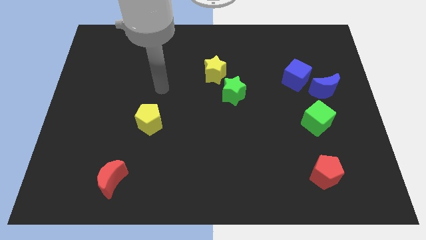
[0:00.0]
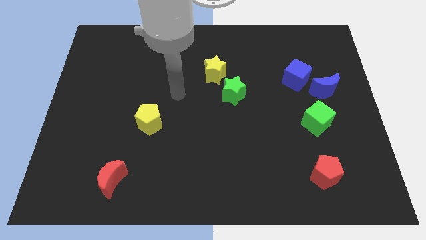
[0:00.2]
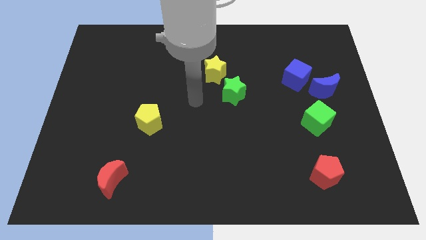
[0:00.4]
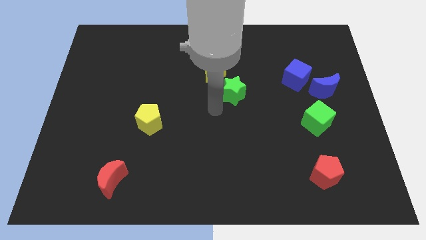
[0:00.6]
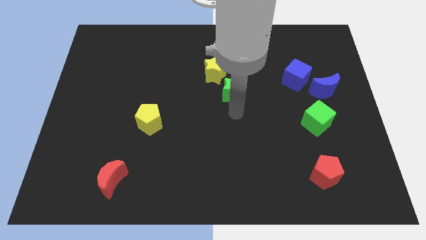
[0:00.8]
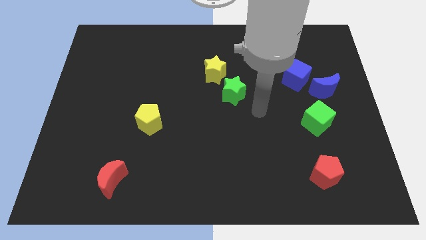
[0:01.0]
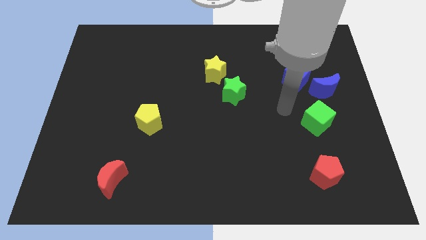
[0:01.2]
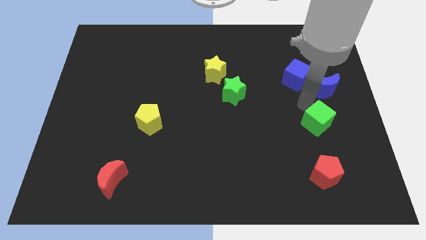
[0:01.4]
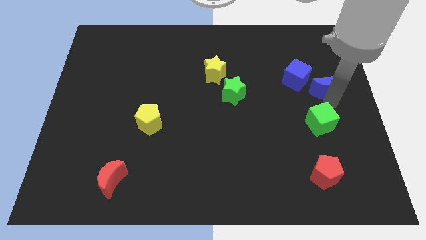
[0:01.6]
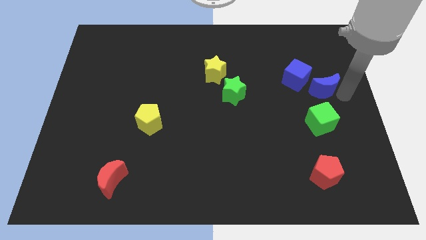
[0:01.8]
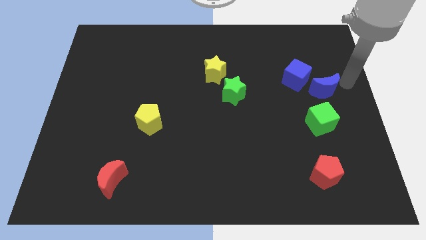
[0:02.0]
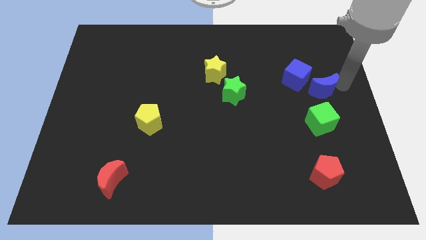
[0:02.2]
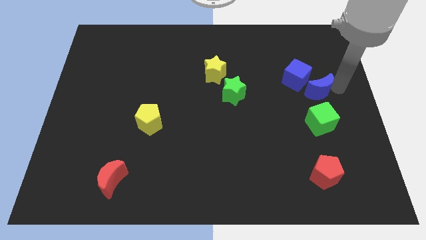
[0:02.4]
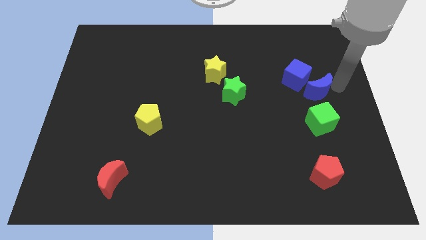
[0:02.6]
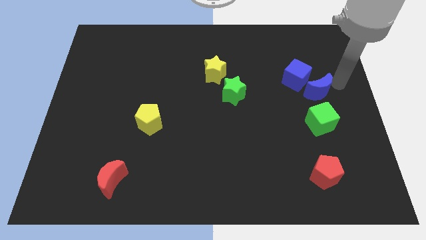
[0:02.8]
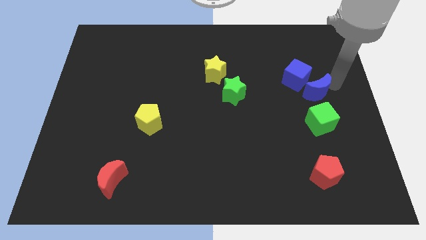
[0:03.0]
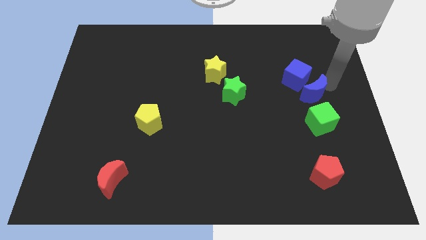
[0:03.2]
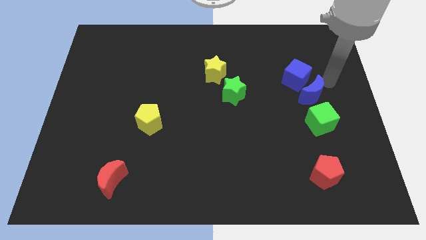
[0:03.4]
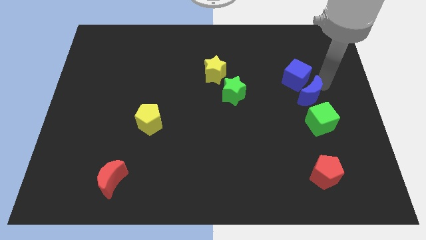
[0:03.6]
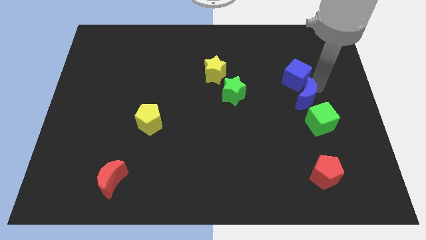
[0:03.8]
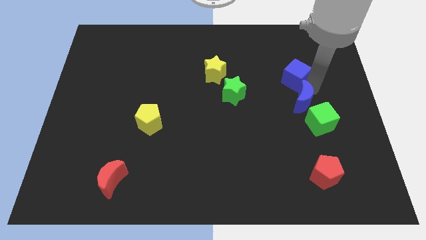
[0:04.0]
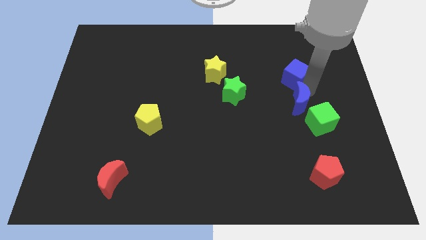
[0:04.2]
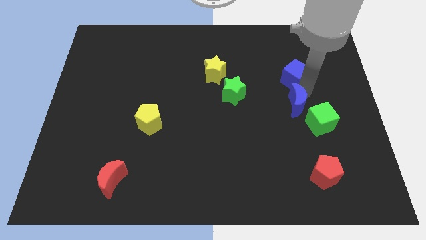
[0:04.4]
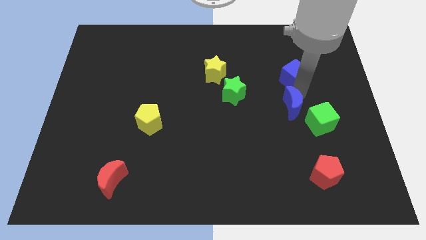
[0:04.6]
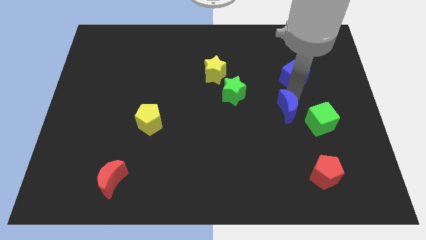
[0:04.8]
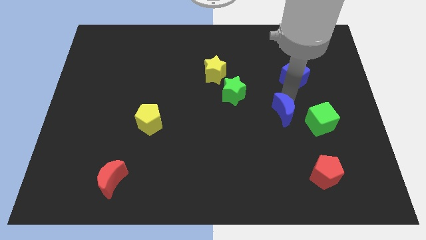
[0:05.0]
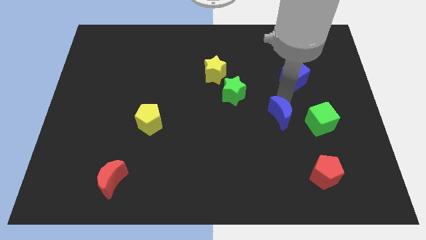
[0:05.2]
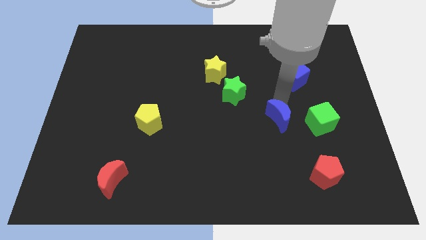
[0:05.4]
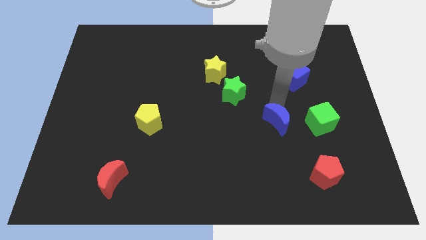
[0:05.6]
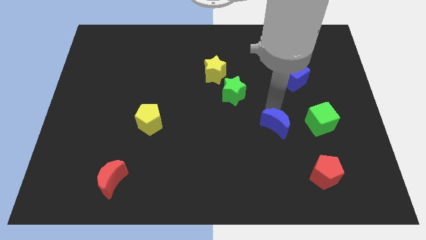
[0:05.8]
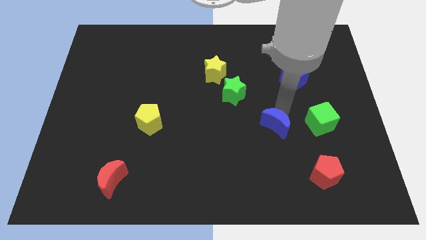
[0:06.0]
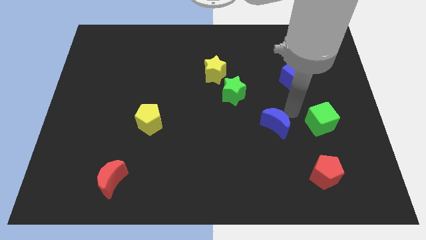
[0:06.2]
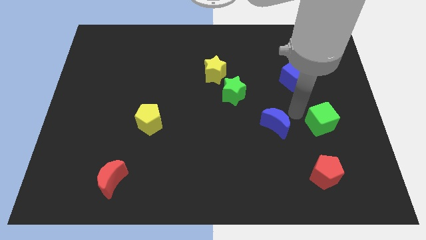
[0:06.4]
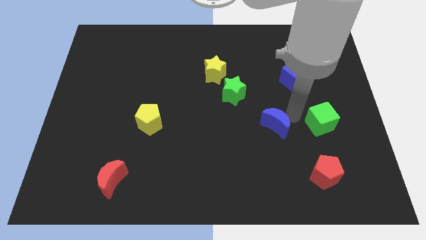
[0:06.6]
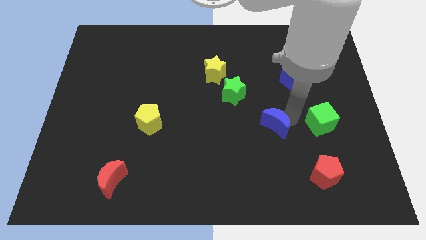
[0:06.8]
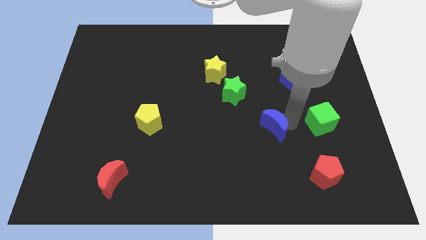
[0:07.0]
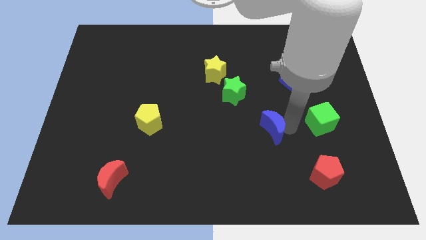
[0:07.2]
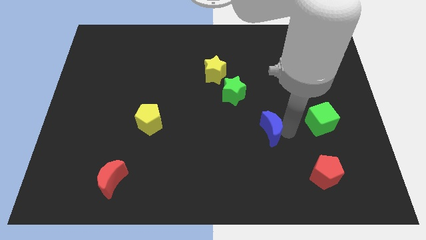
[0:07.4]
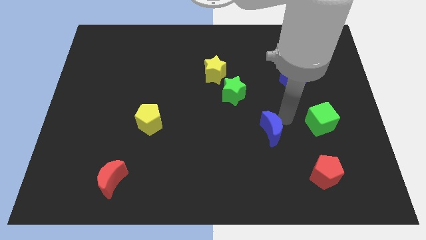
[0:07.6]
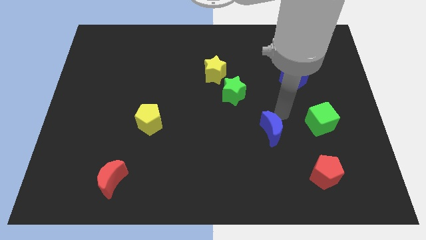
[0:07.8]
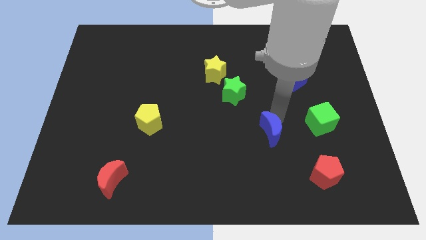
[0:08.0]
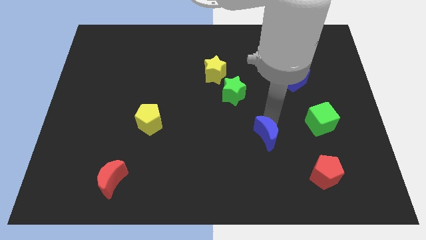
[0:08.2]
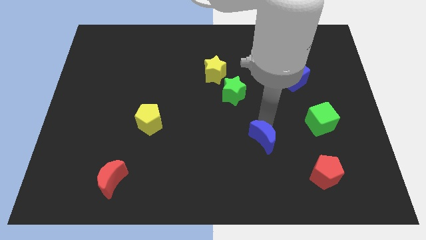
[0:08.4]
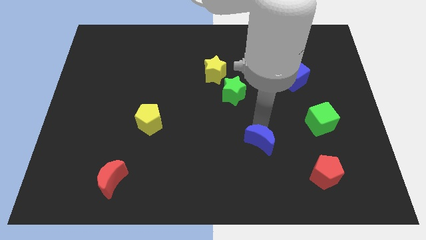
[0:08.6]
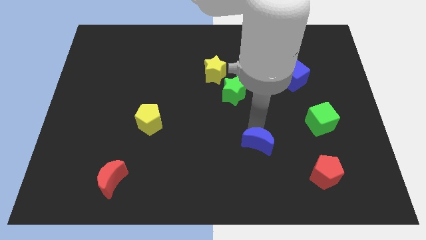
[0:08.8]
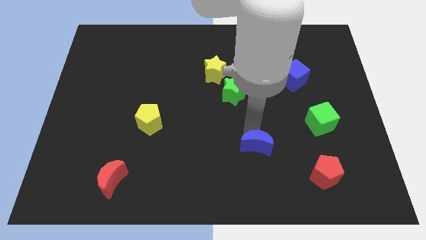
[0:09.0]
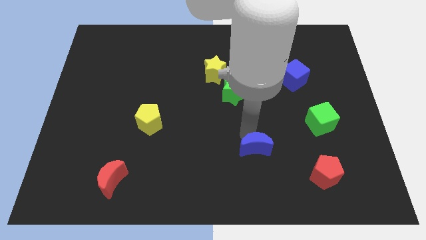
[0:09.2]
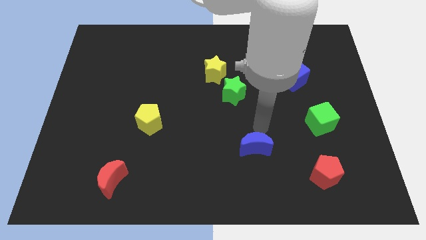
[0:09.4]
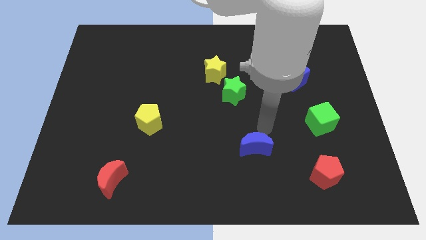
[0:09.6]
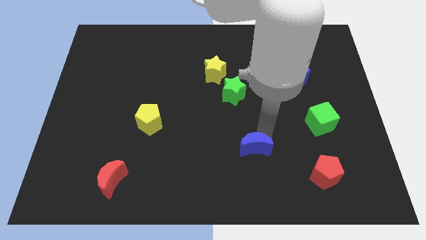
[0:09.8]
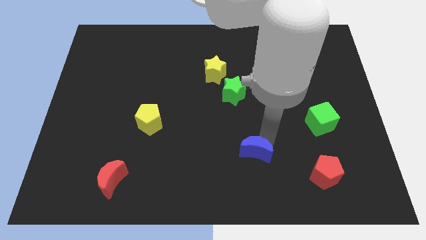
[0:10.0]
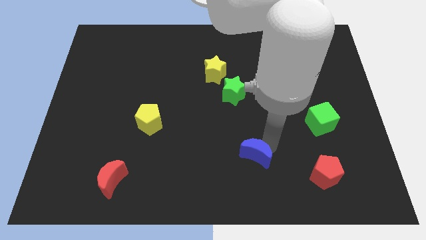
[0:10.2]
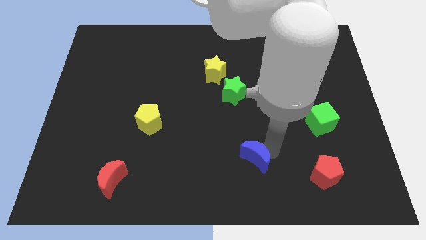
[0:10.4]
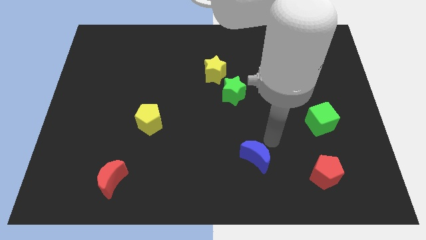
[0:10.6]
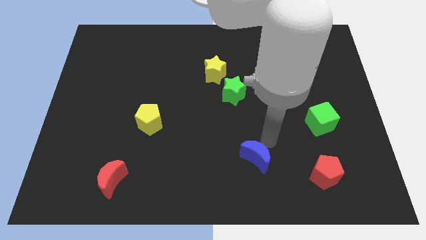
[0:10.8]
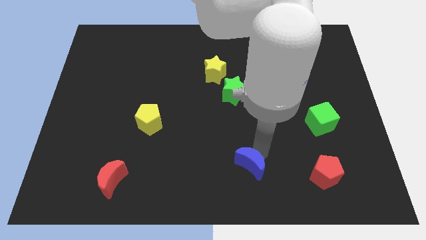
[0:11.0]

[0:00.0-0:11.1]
move the blue moon to the bottom

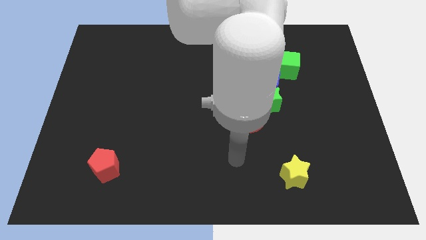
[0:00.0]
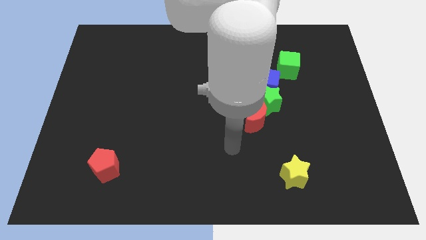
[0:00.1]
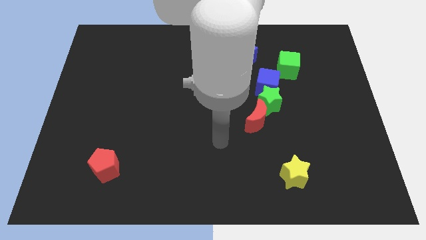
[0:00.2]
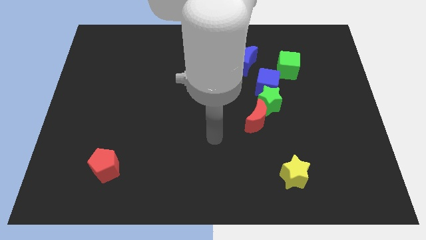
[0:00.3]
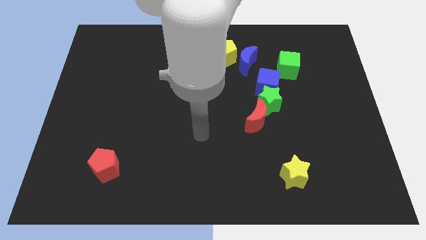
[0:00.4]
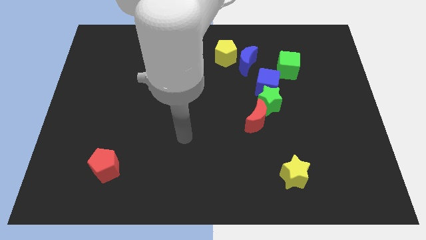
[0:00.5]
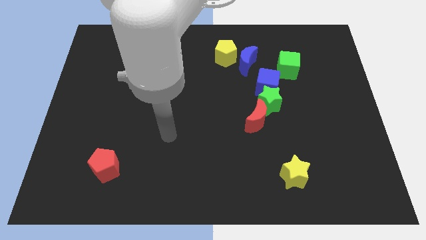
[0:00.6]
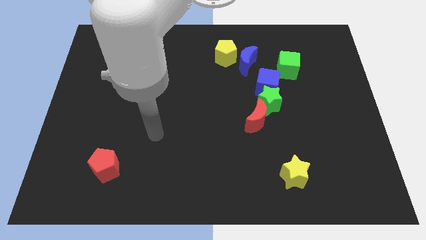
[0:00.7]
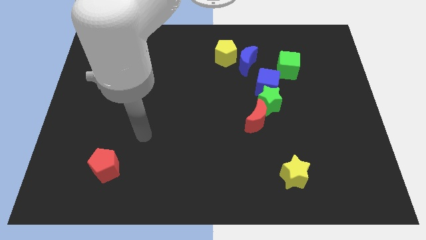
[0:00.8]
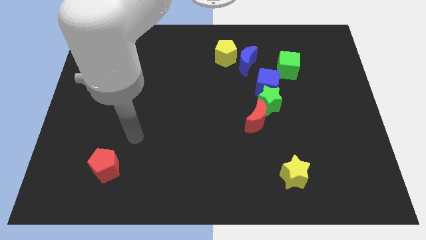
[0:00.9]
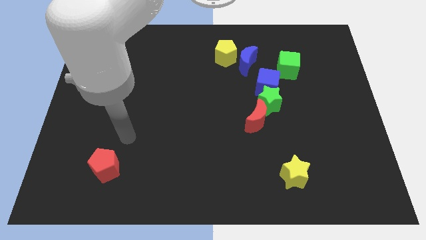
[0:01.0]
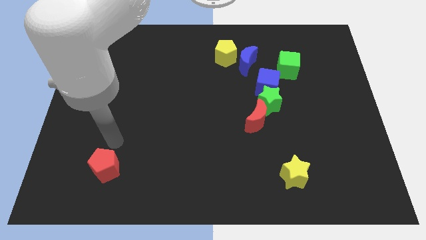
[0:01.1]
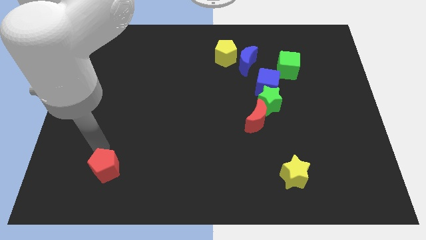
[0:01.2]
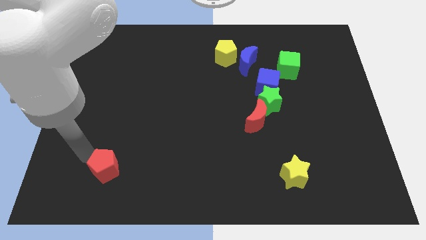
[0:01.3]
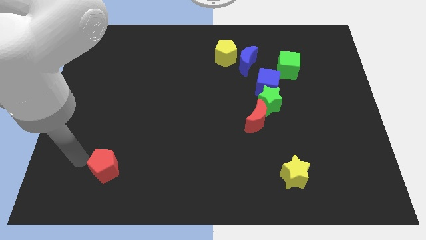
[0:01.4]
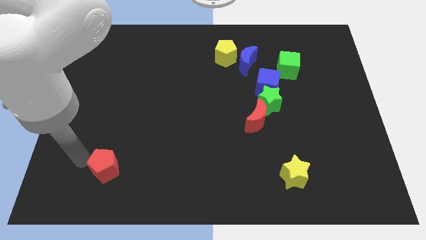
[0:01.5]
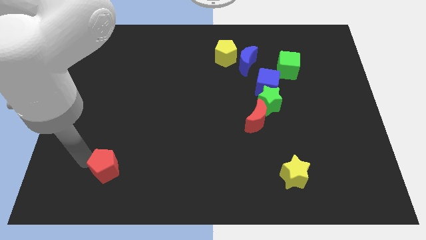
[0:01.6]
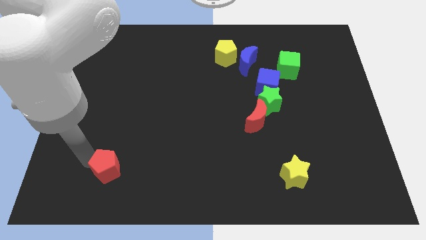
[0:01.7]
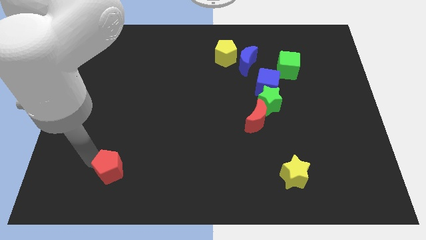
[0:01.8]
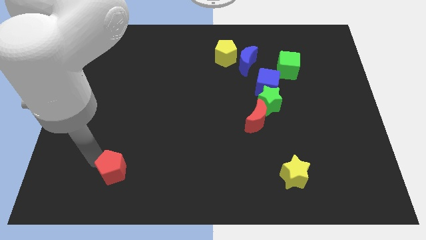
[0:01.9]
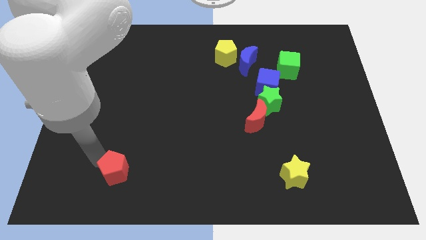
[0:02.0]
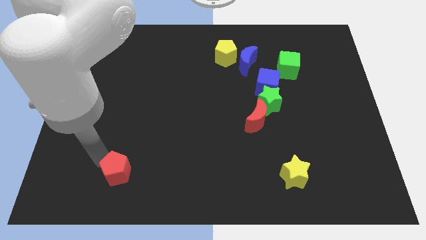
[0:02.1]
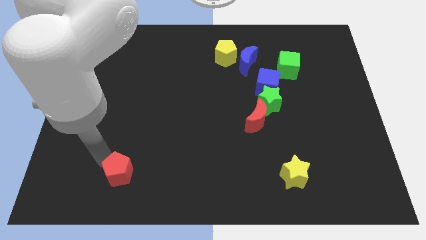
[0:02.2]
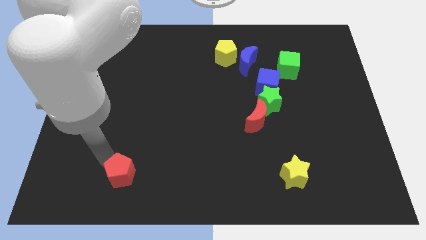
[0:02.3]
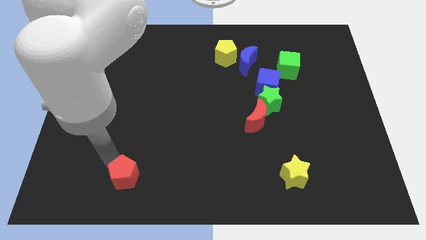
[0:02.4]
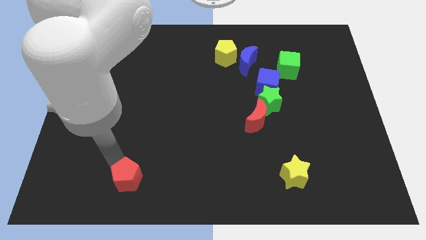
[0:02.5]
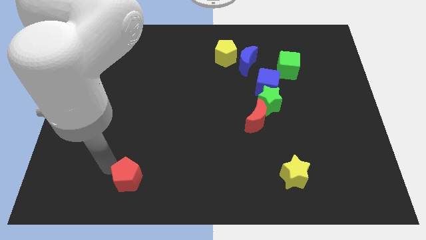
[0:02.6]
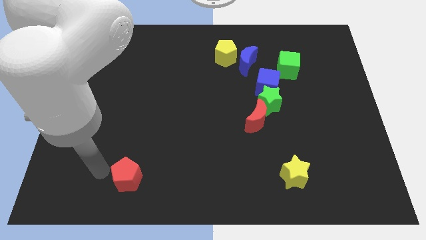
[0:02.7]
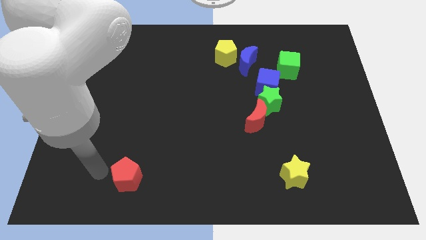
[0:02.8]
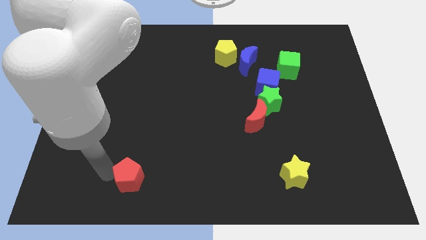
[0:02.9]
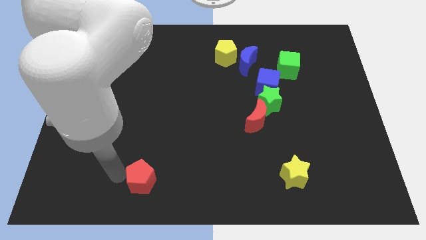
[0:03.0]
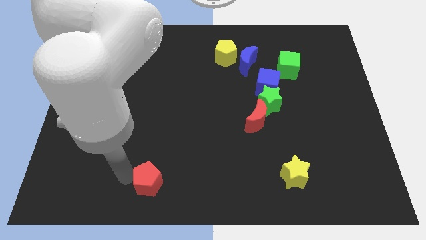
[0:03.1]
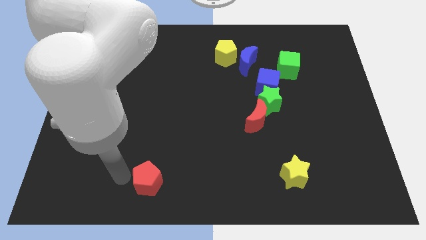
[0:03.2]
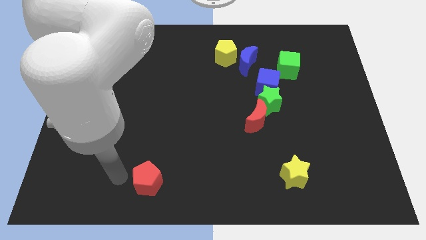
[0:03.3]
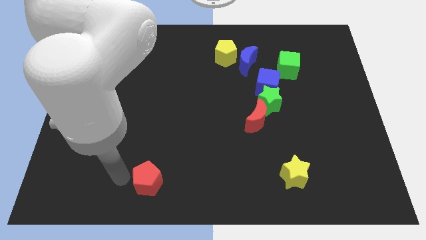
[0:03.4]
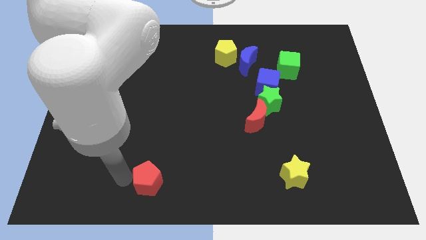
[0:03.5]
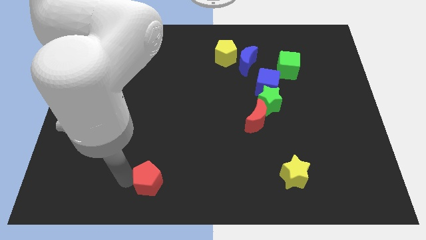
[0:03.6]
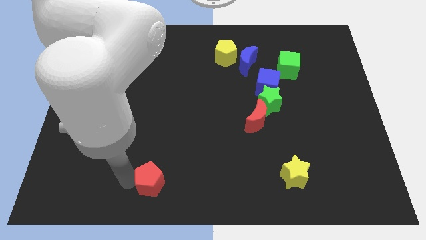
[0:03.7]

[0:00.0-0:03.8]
put the red pentagon to the bottom
